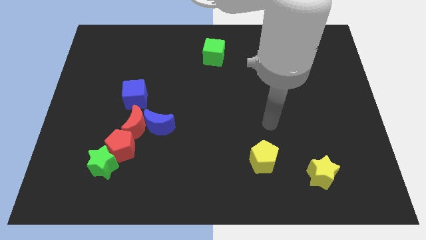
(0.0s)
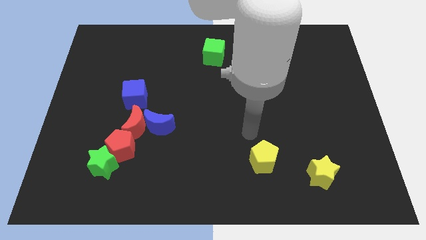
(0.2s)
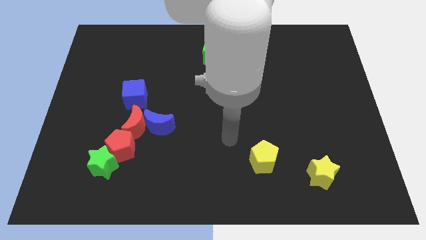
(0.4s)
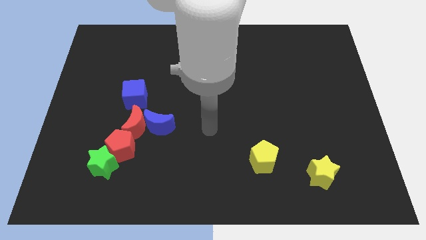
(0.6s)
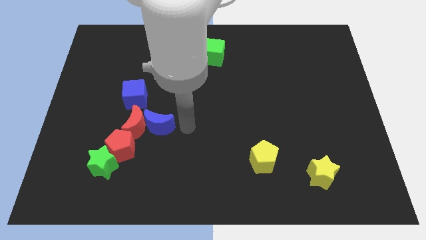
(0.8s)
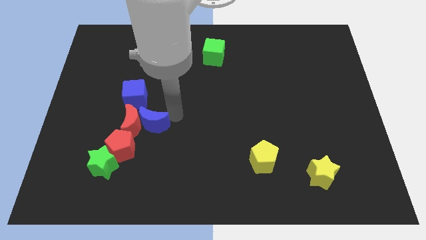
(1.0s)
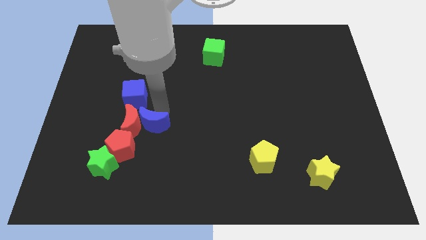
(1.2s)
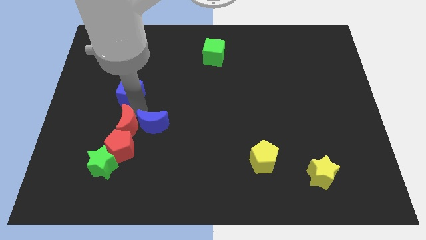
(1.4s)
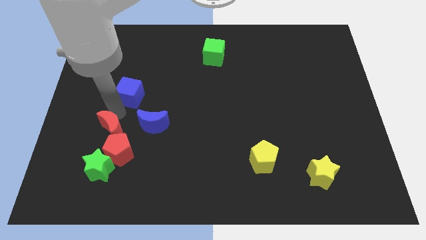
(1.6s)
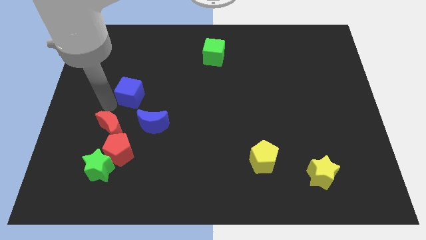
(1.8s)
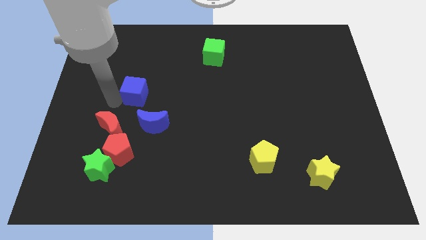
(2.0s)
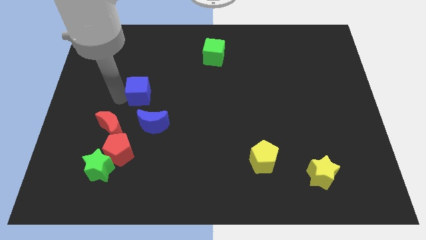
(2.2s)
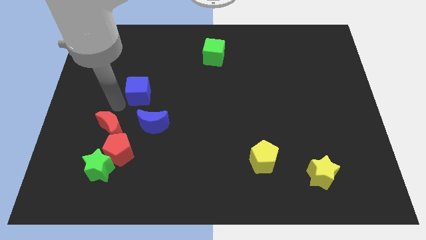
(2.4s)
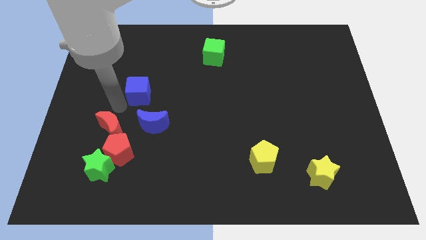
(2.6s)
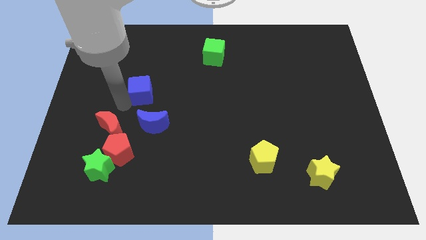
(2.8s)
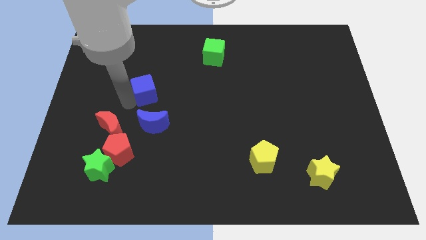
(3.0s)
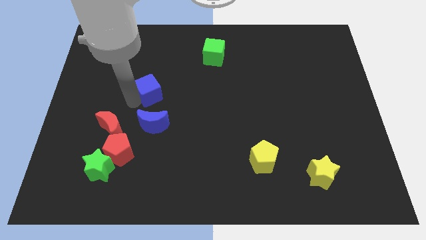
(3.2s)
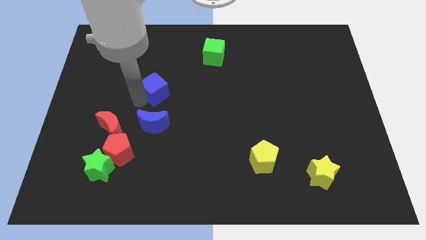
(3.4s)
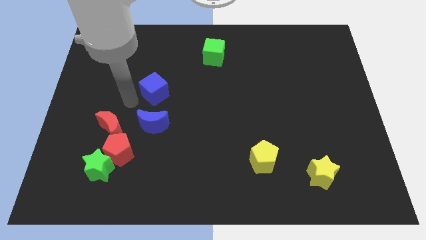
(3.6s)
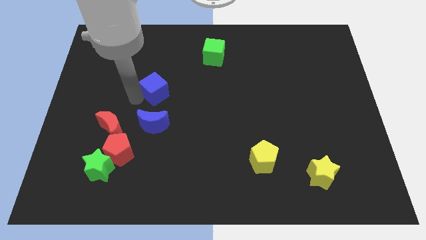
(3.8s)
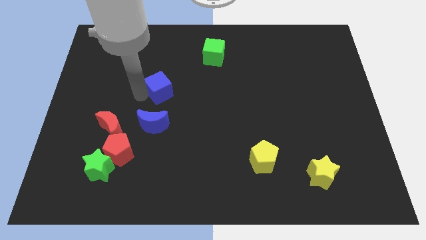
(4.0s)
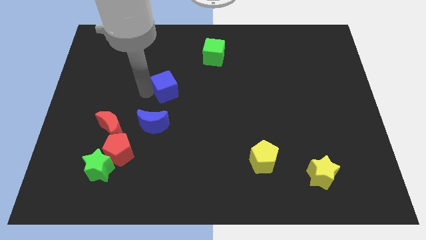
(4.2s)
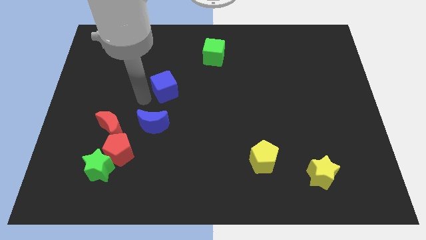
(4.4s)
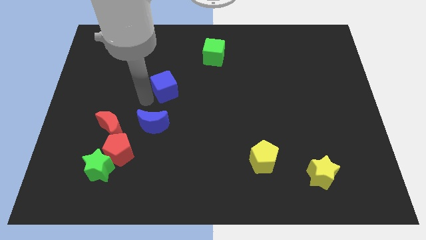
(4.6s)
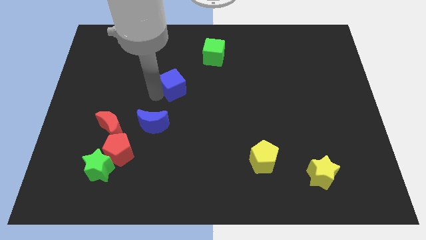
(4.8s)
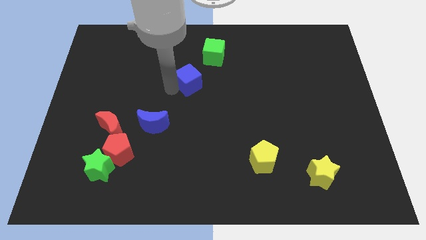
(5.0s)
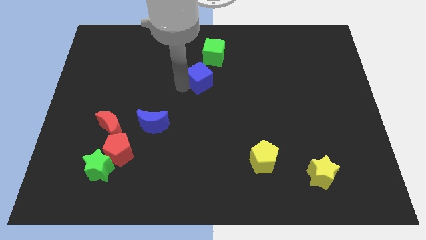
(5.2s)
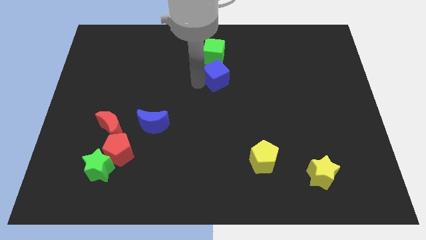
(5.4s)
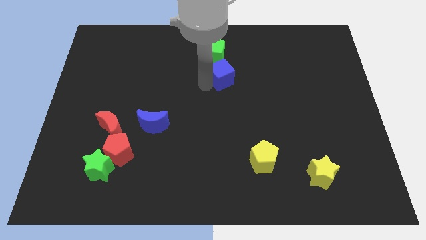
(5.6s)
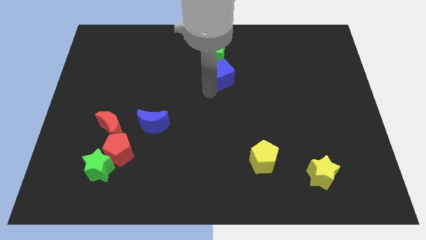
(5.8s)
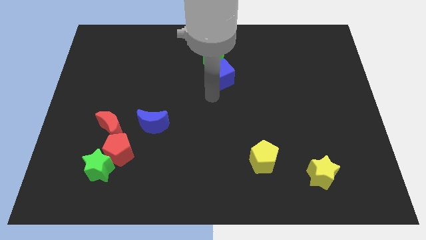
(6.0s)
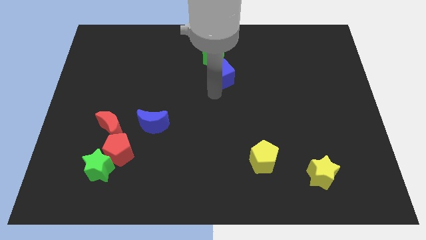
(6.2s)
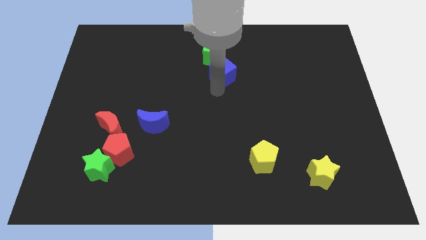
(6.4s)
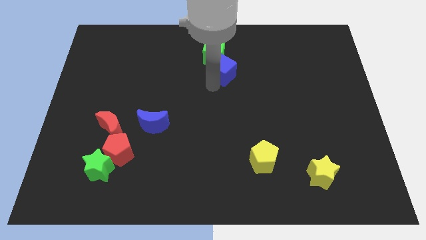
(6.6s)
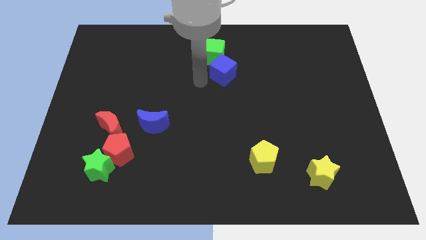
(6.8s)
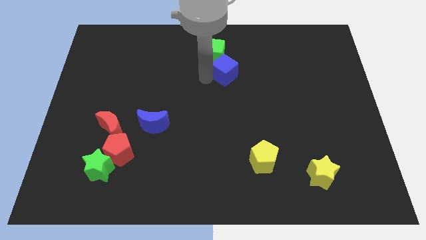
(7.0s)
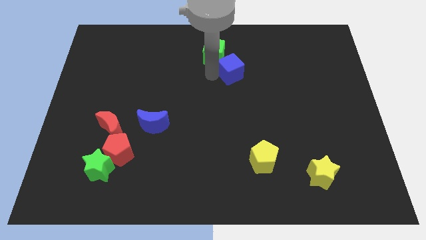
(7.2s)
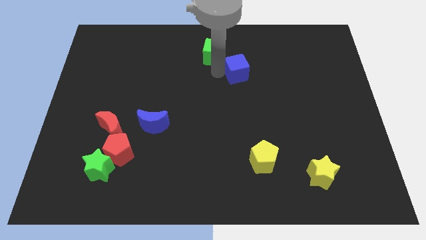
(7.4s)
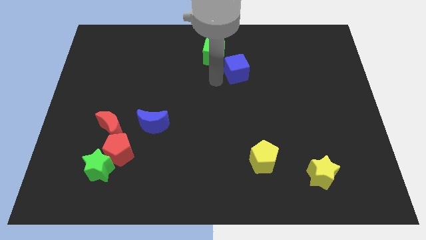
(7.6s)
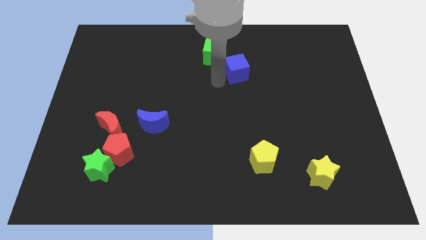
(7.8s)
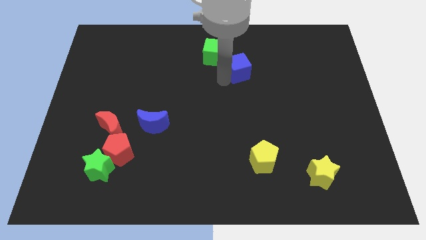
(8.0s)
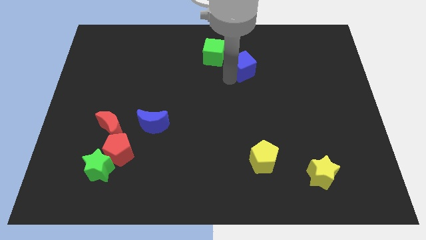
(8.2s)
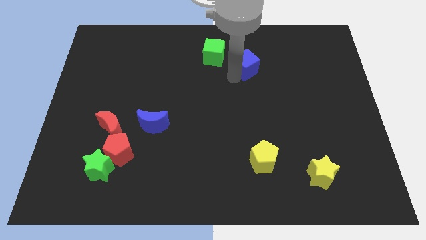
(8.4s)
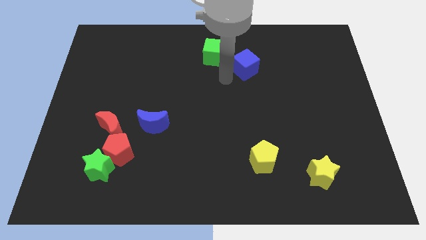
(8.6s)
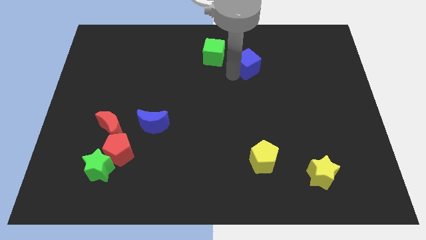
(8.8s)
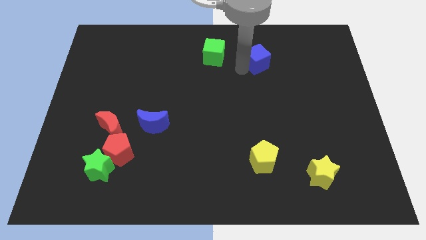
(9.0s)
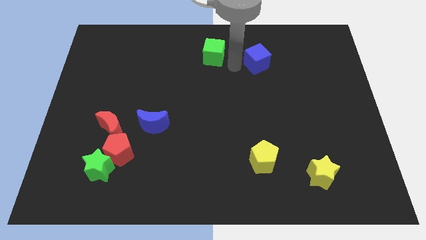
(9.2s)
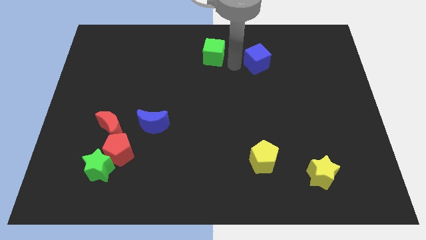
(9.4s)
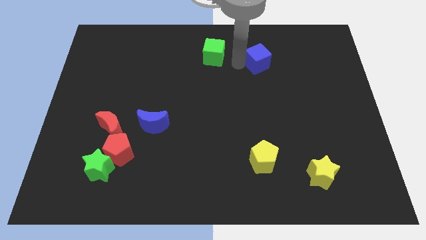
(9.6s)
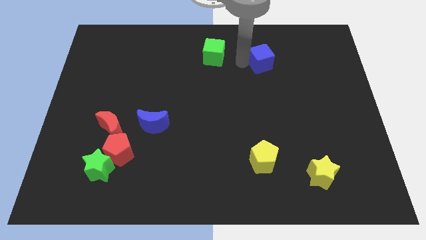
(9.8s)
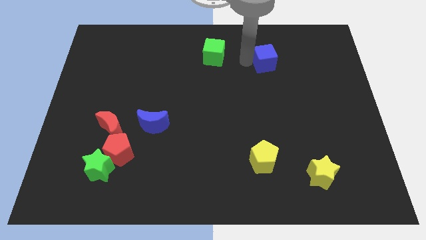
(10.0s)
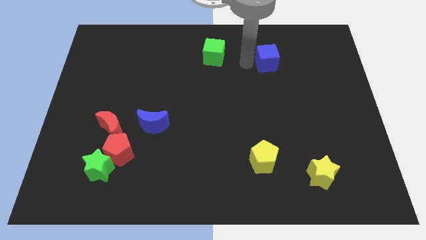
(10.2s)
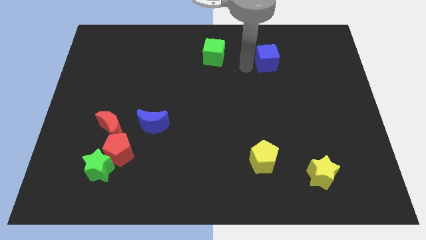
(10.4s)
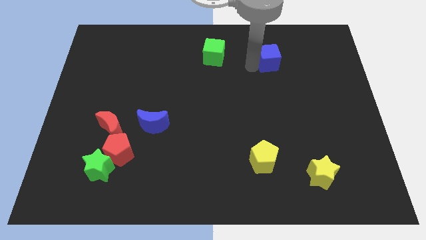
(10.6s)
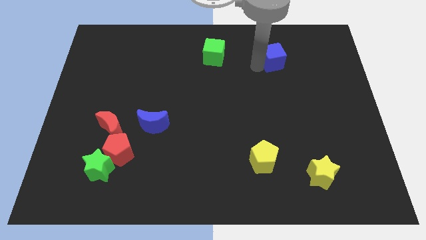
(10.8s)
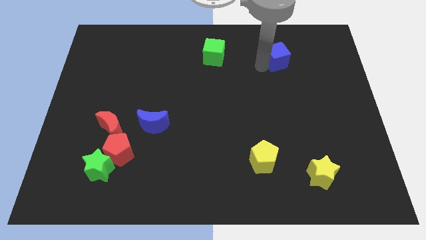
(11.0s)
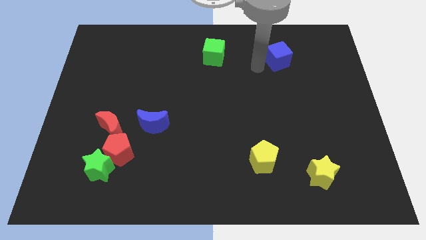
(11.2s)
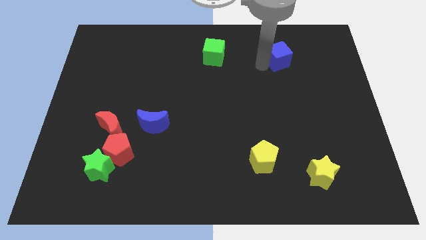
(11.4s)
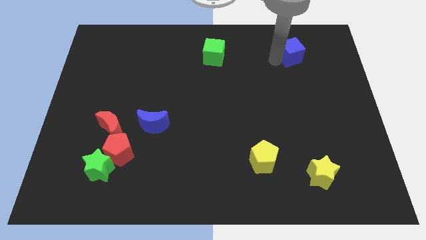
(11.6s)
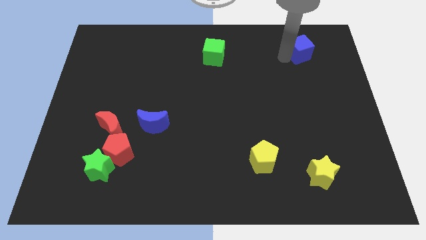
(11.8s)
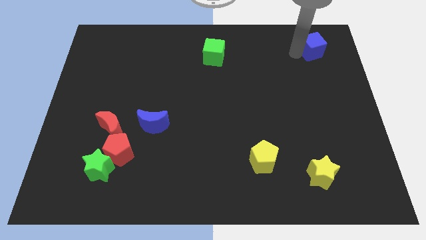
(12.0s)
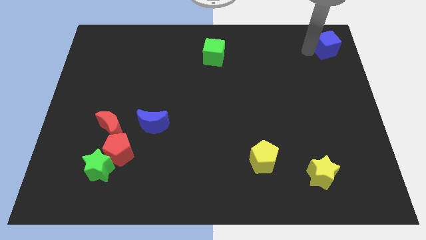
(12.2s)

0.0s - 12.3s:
put the blue cube to the upper right corner
